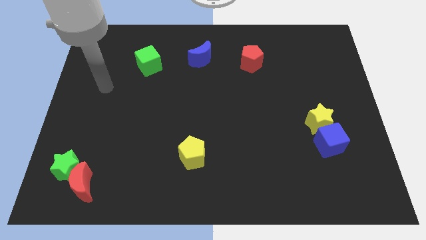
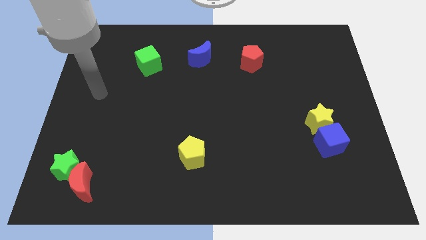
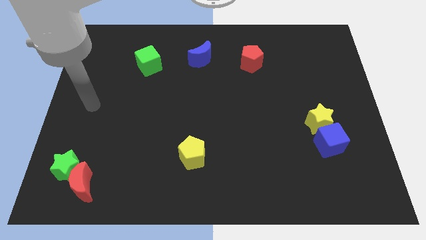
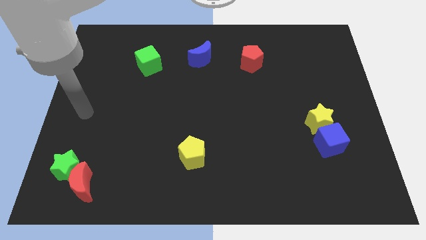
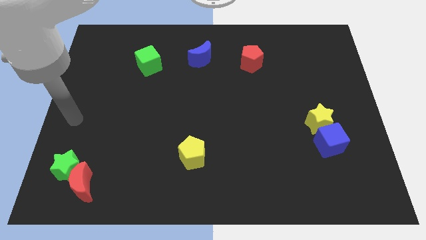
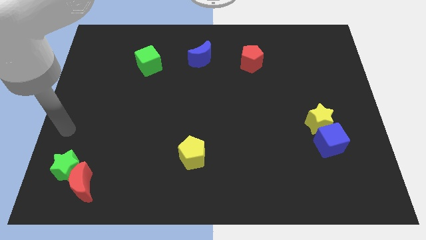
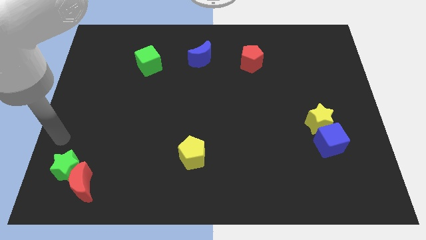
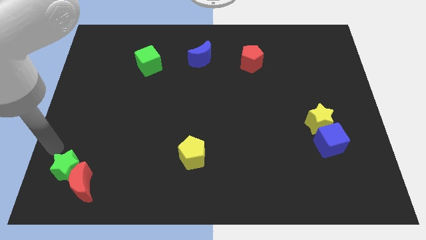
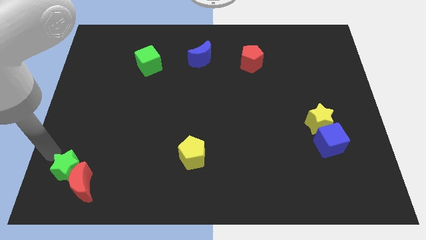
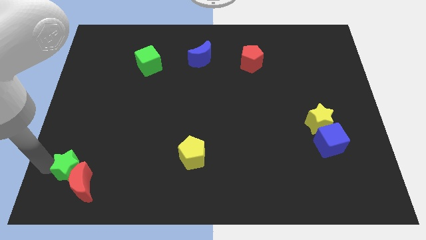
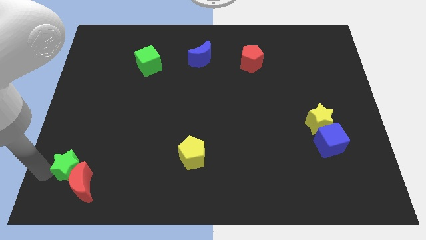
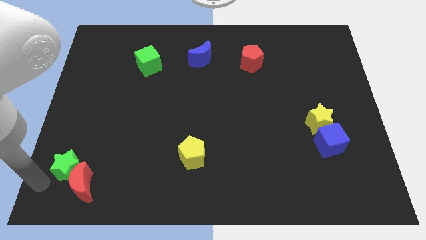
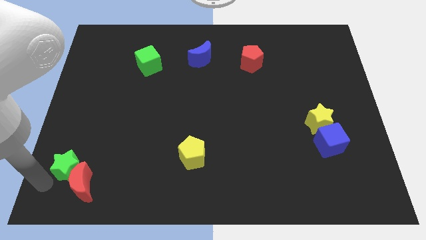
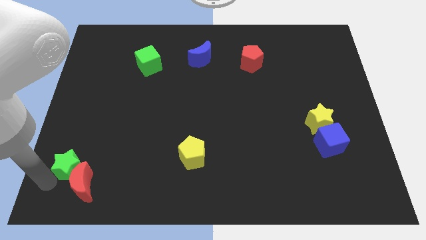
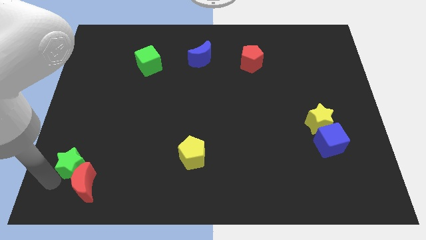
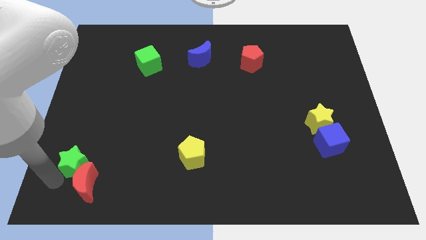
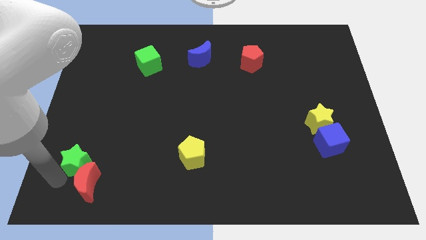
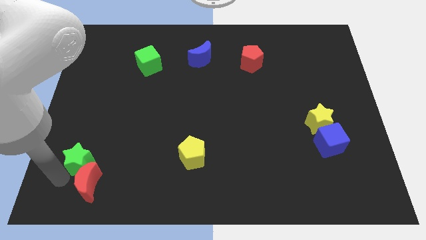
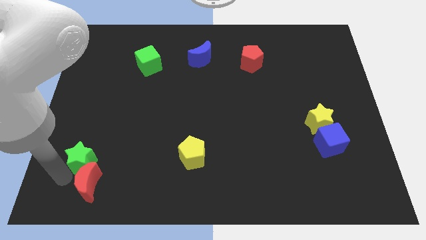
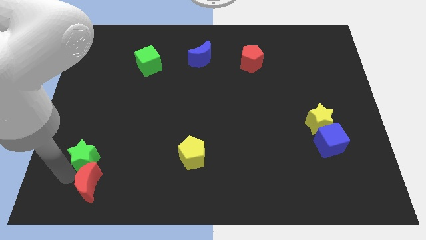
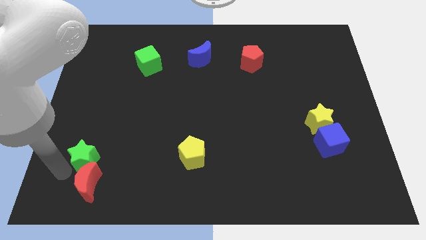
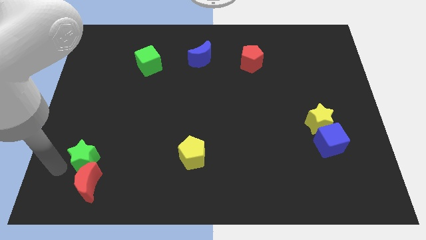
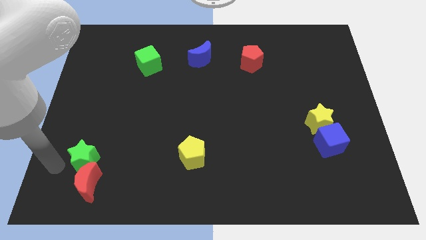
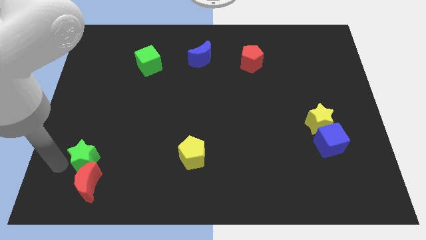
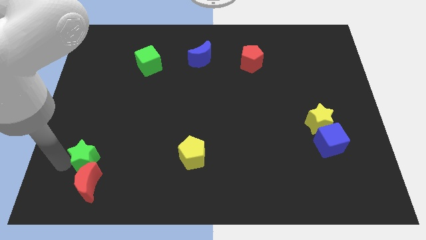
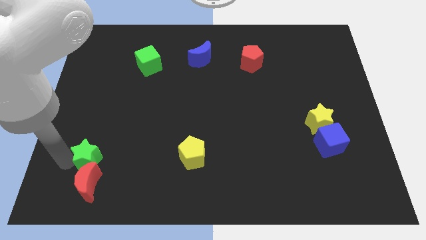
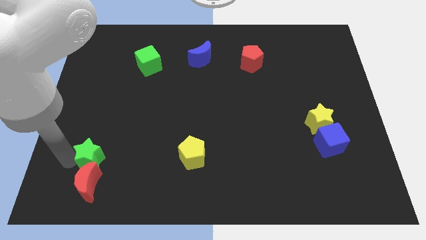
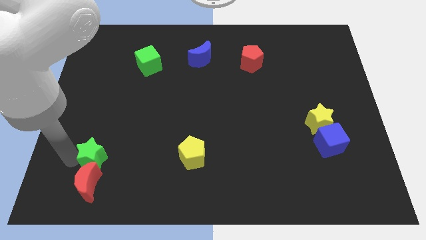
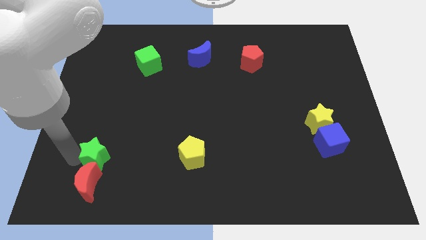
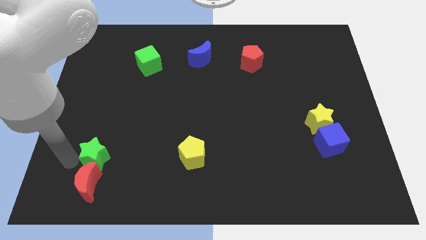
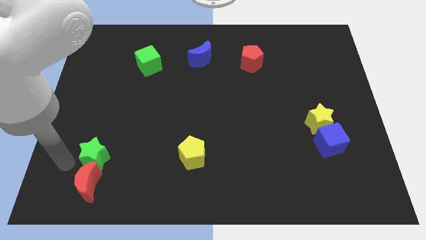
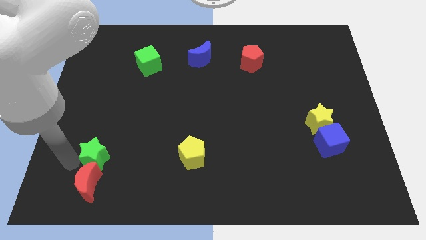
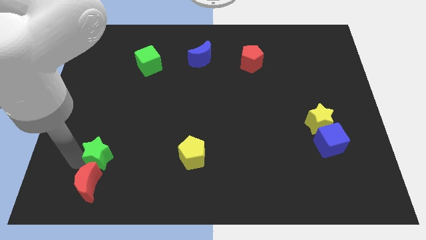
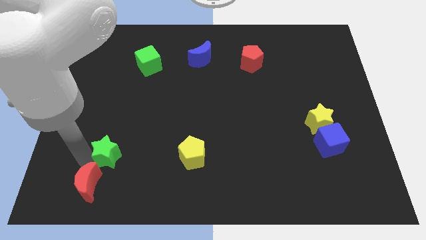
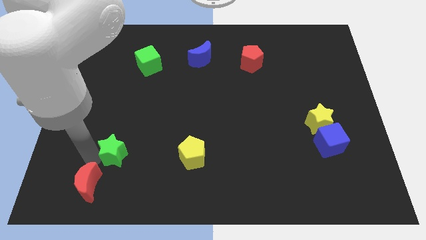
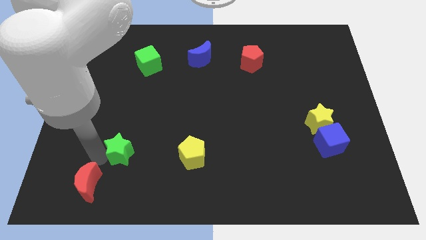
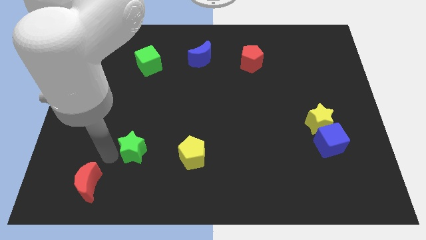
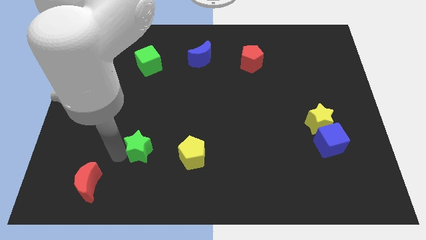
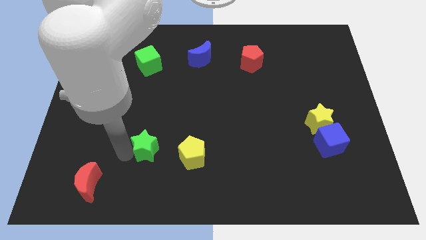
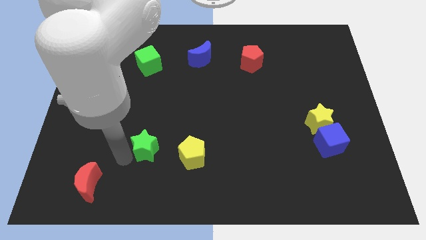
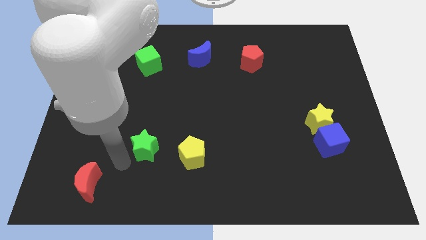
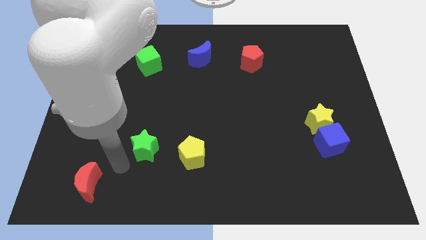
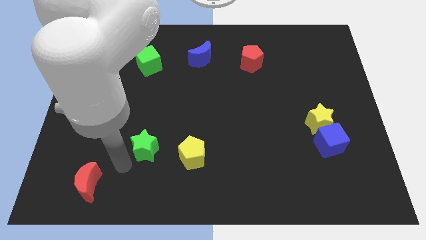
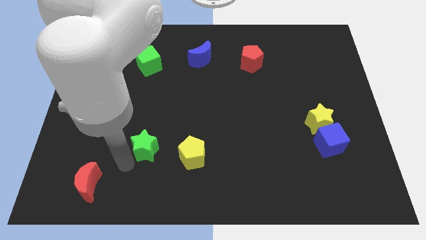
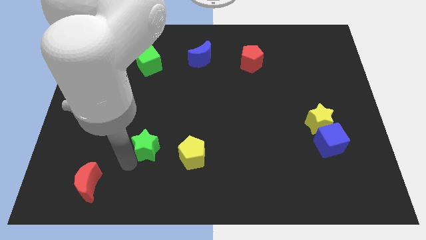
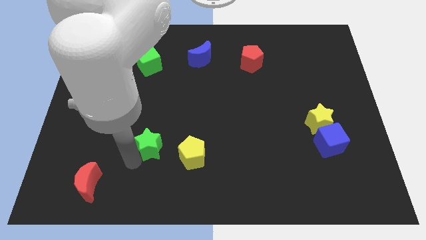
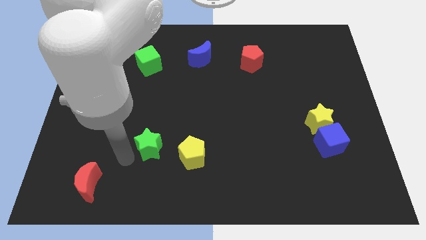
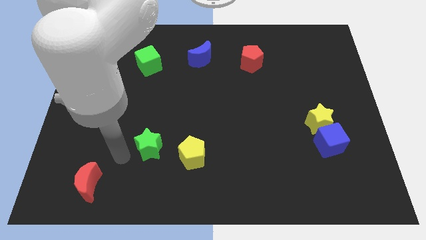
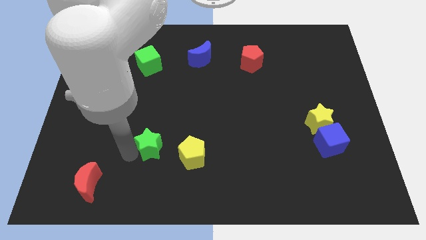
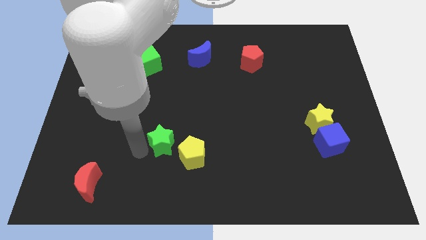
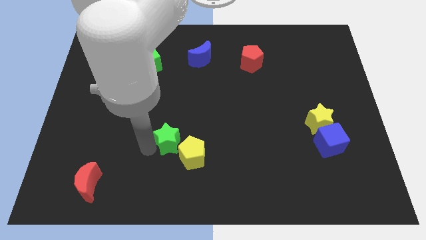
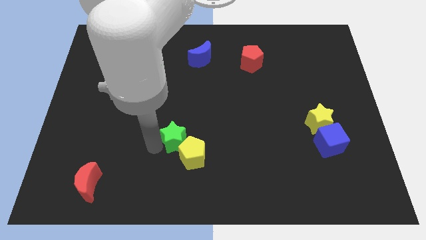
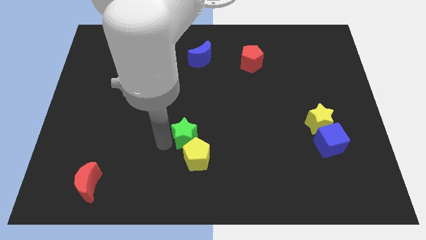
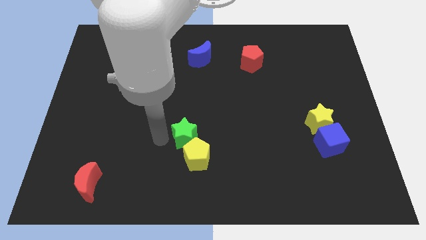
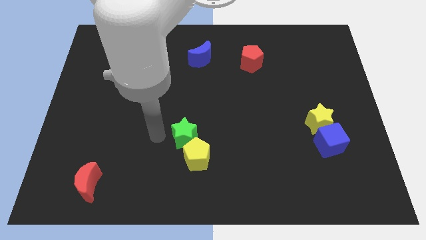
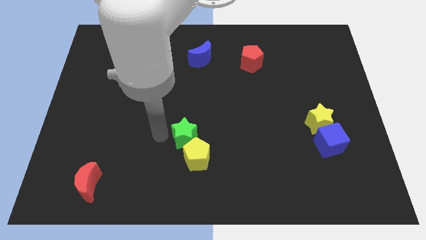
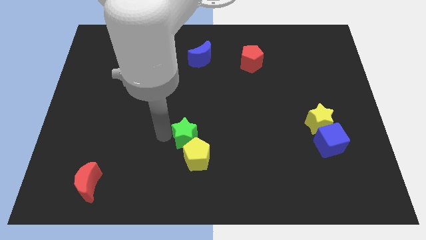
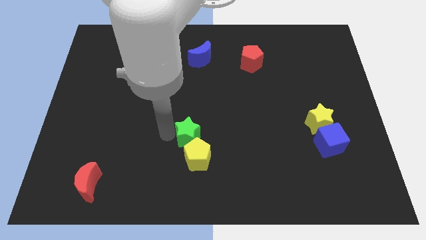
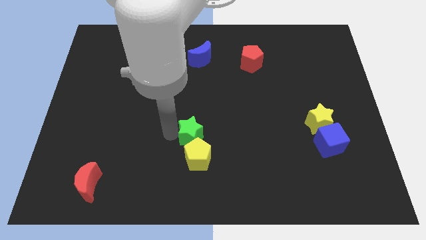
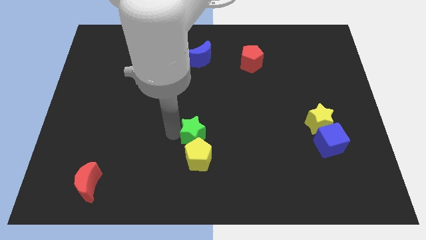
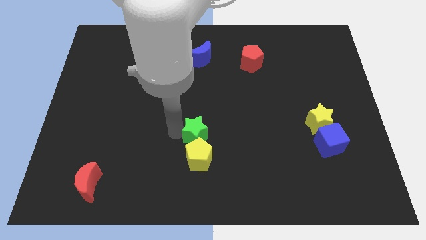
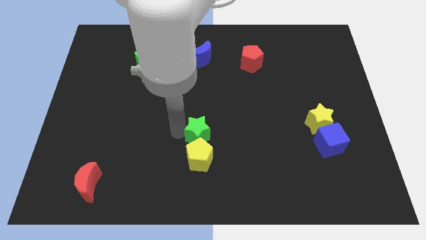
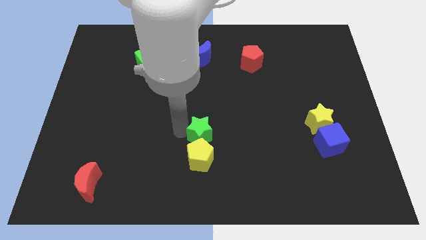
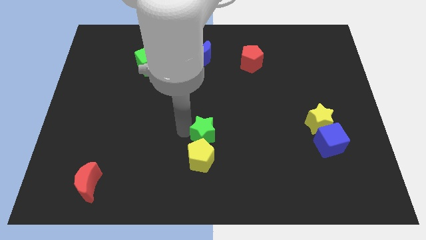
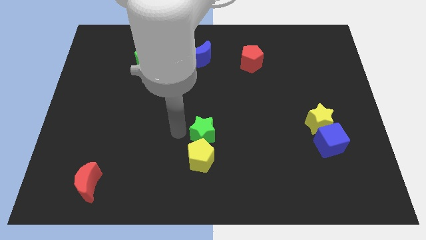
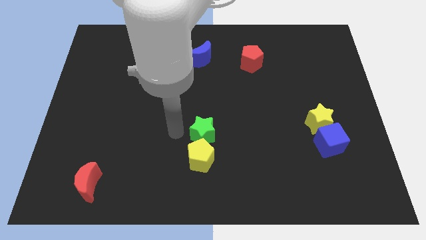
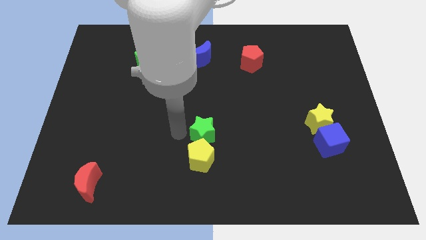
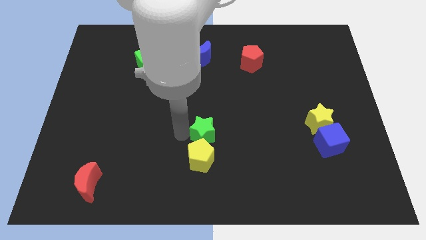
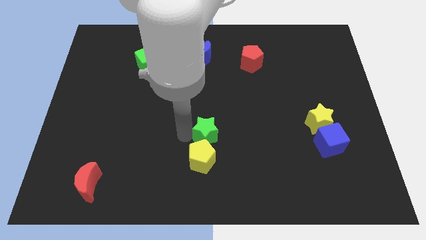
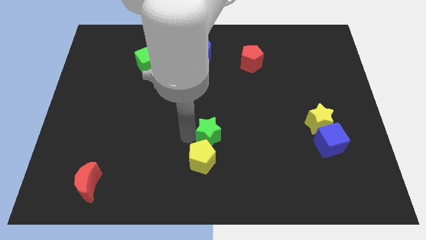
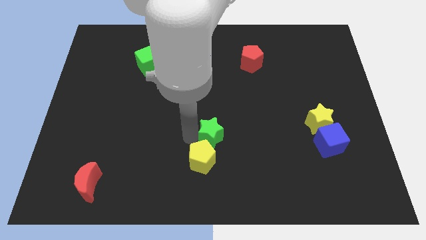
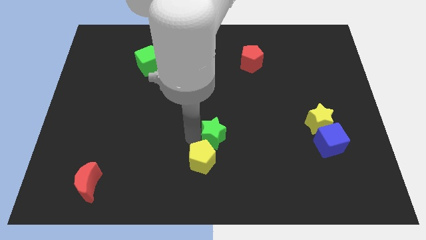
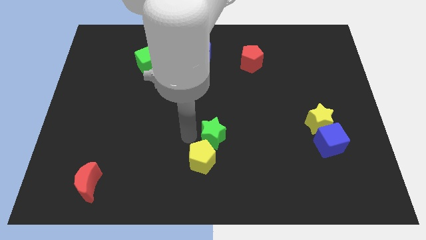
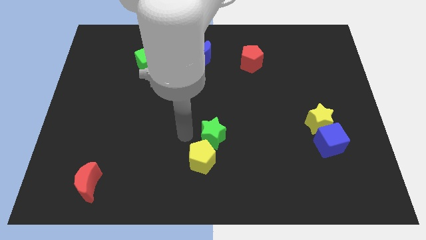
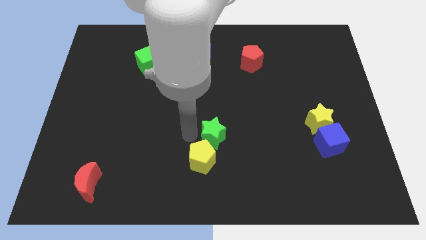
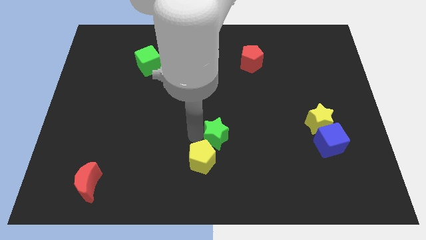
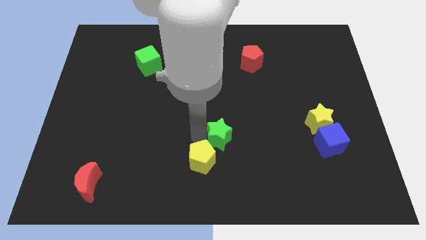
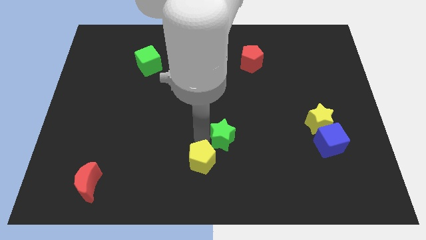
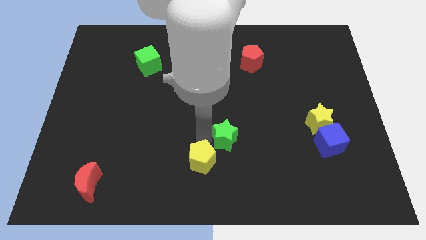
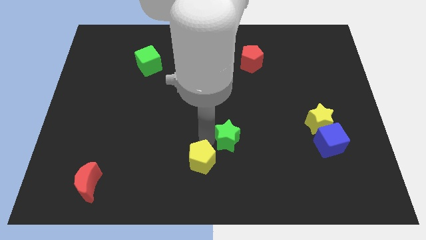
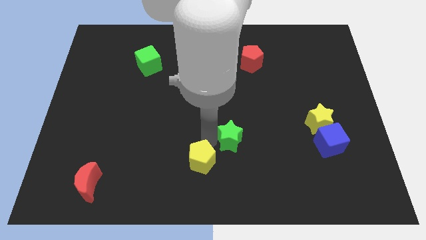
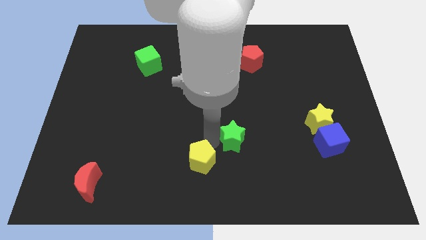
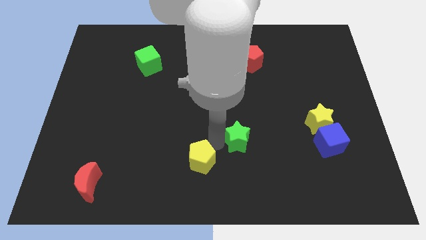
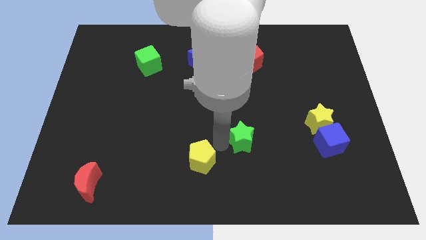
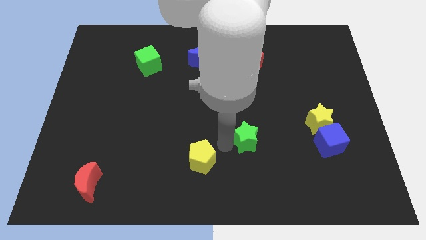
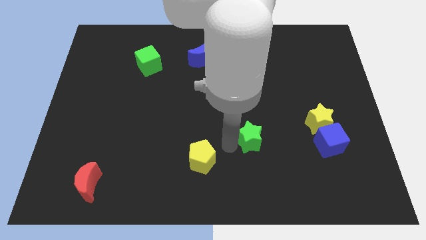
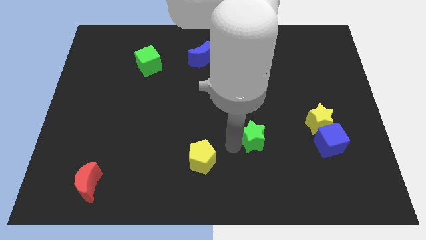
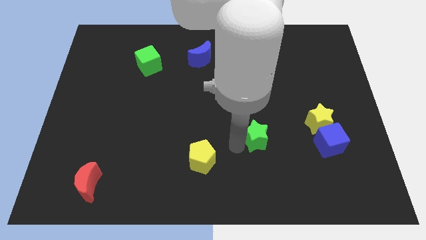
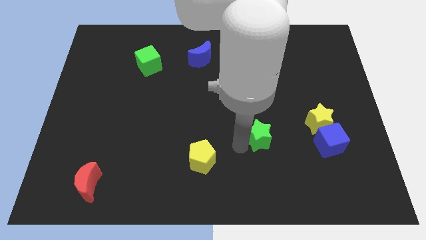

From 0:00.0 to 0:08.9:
move the green star to the left side of the yellow star
